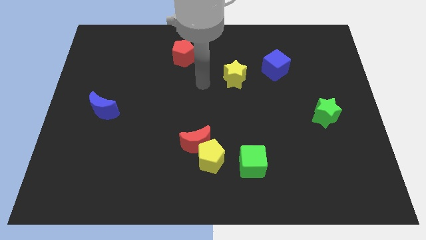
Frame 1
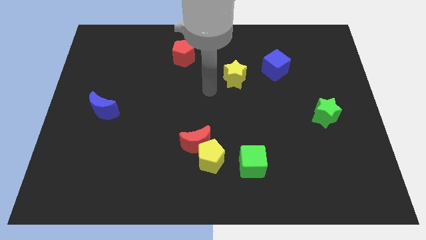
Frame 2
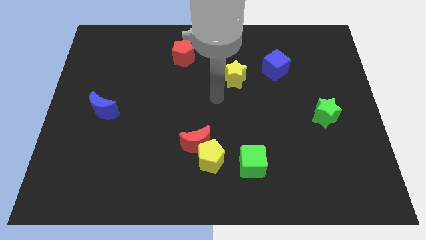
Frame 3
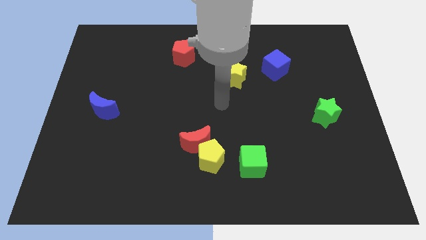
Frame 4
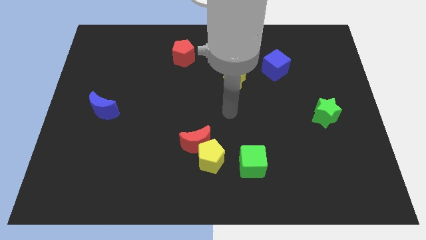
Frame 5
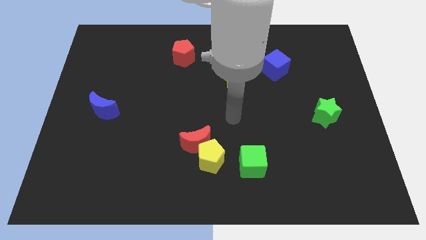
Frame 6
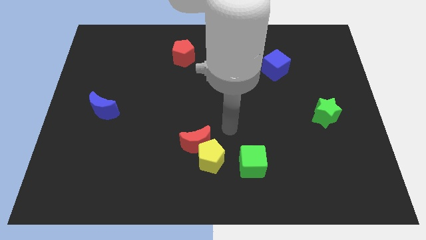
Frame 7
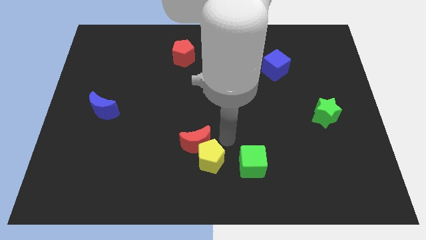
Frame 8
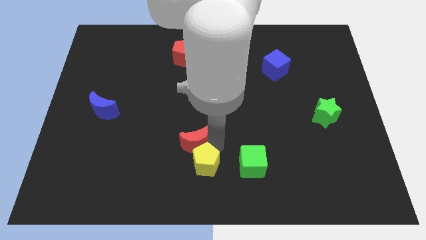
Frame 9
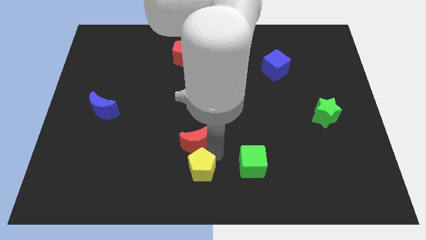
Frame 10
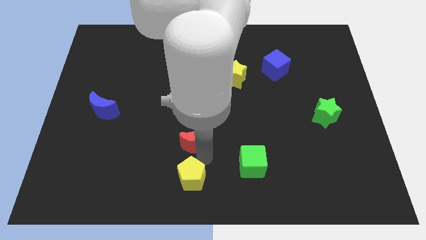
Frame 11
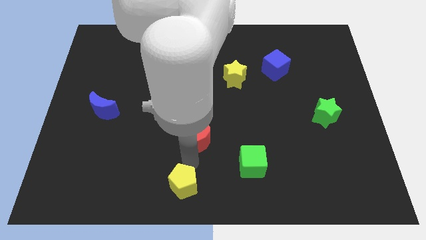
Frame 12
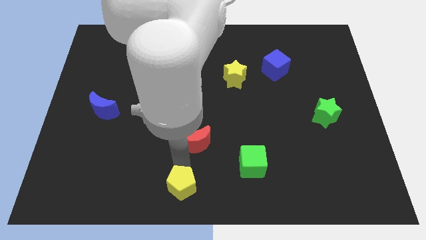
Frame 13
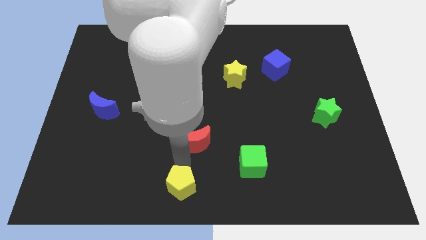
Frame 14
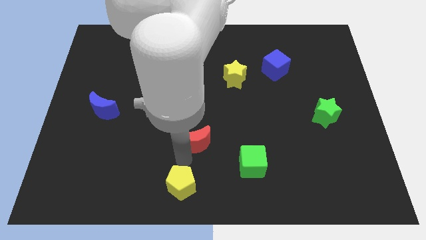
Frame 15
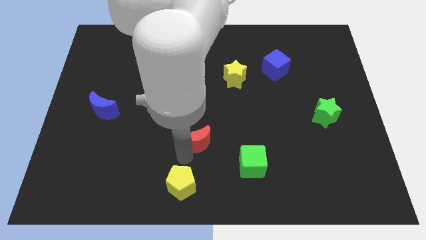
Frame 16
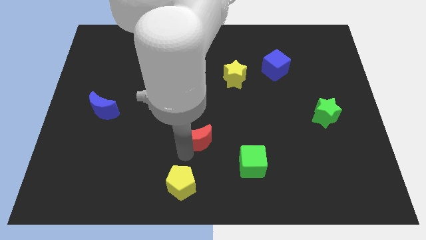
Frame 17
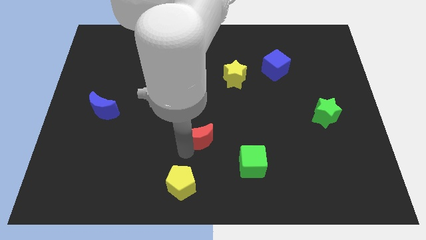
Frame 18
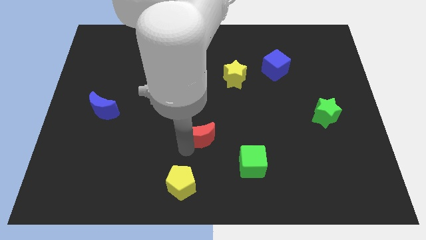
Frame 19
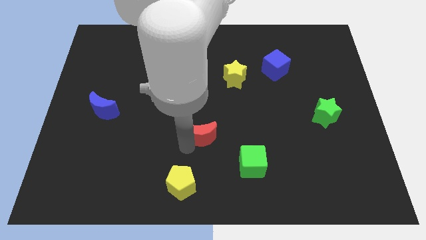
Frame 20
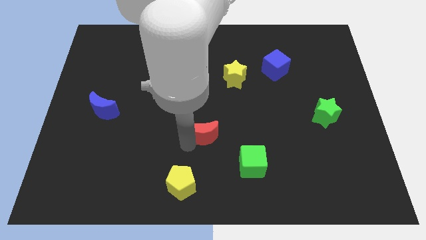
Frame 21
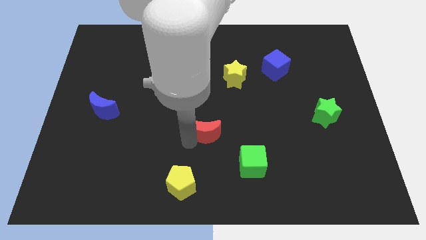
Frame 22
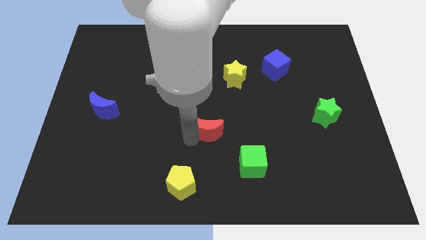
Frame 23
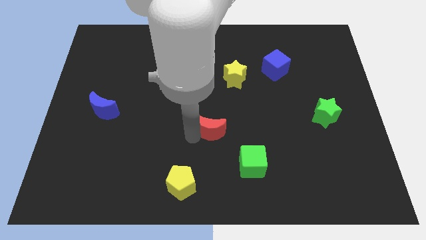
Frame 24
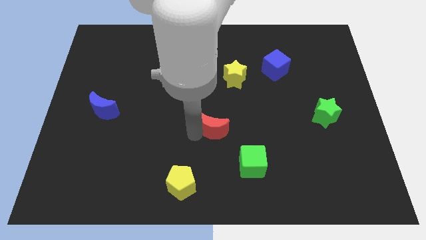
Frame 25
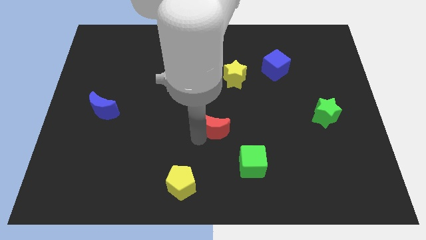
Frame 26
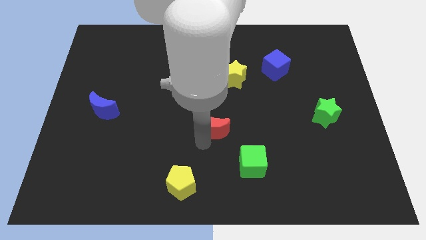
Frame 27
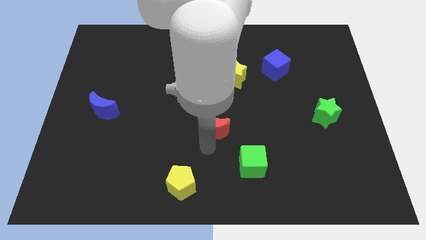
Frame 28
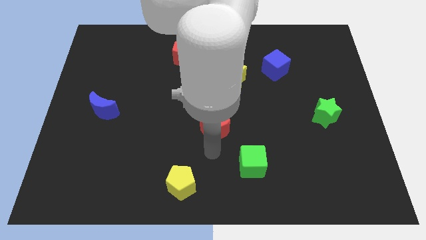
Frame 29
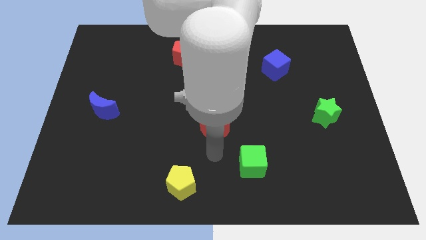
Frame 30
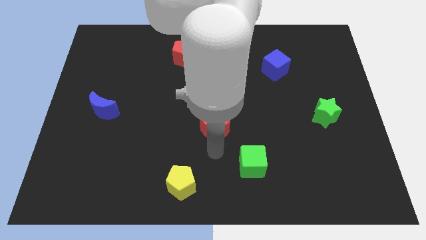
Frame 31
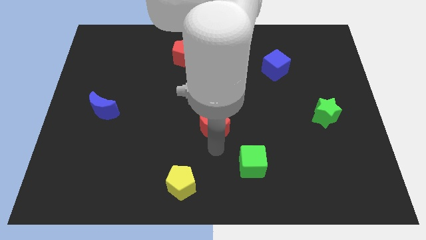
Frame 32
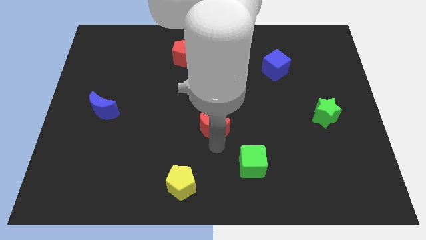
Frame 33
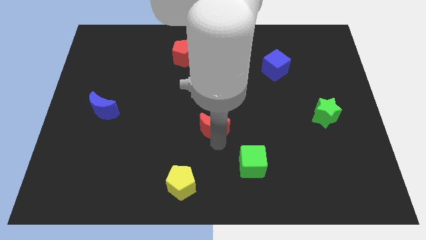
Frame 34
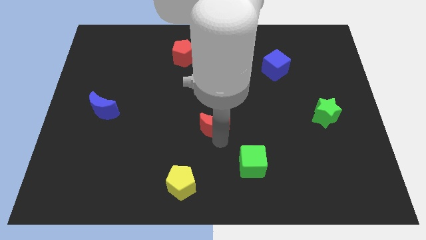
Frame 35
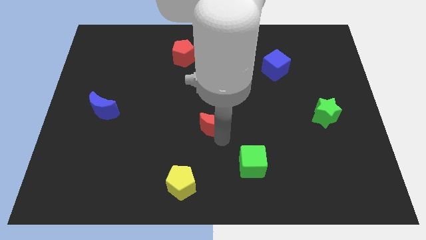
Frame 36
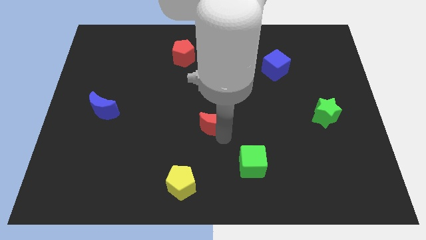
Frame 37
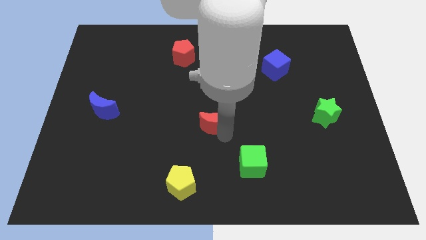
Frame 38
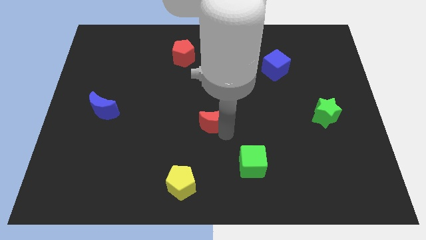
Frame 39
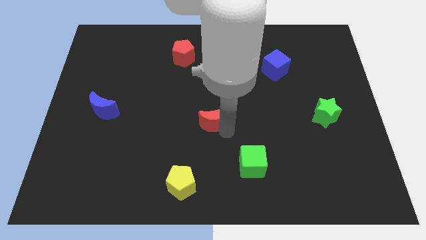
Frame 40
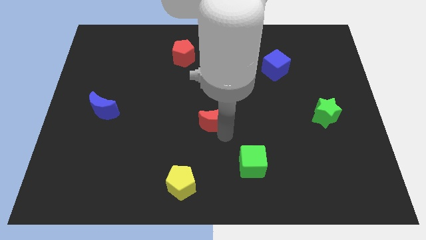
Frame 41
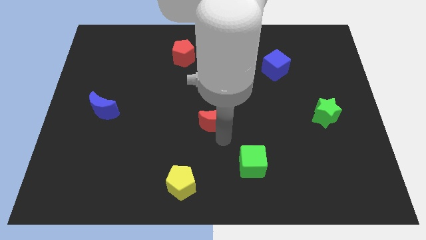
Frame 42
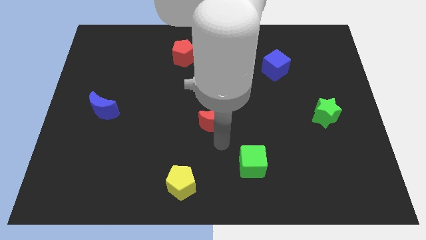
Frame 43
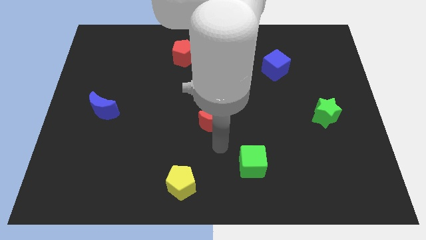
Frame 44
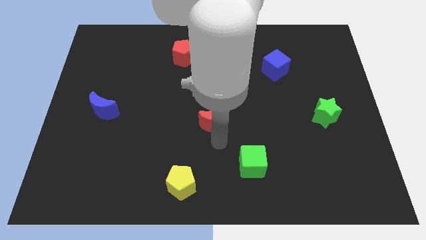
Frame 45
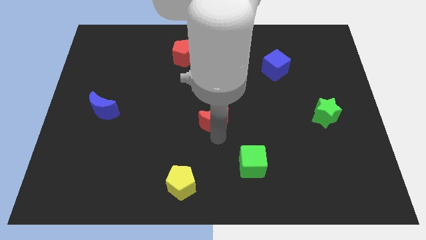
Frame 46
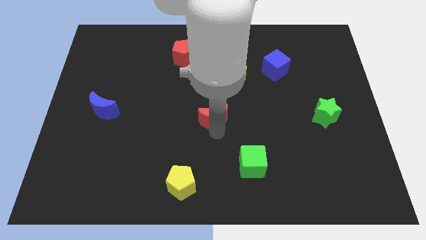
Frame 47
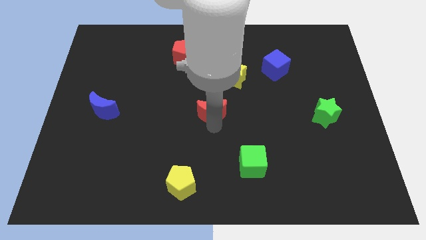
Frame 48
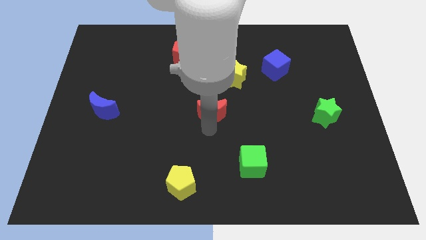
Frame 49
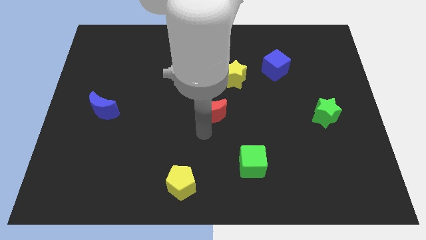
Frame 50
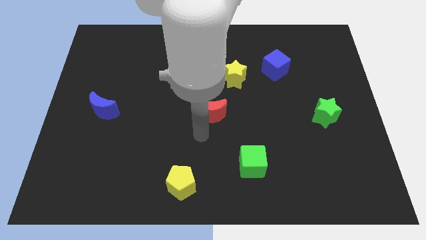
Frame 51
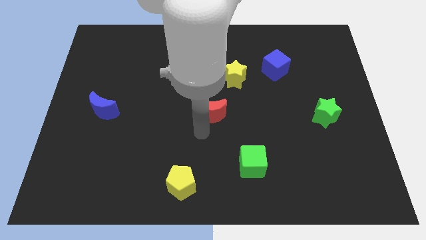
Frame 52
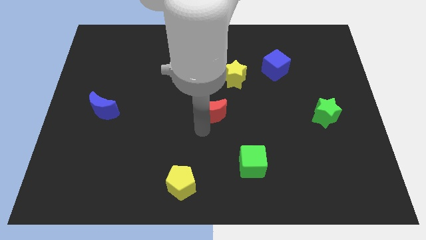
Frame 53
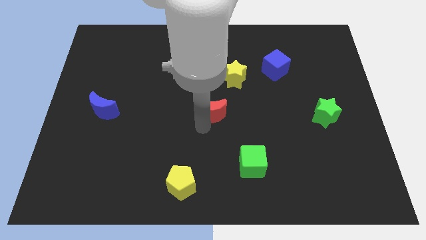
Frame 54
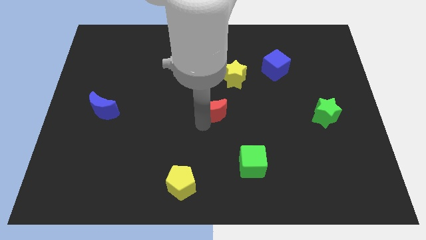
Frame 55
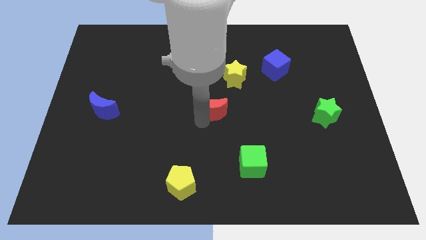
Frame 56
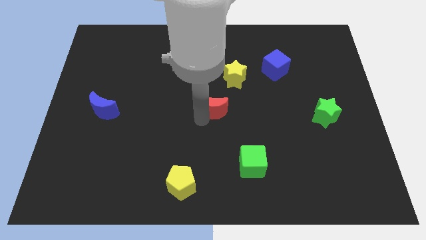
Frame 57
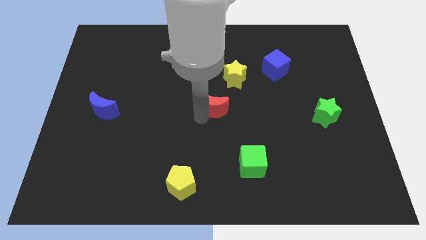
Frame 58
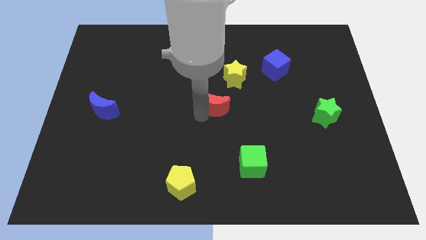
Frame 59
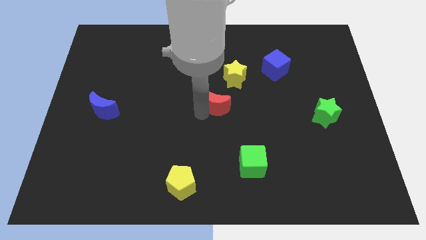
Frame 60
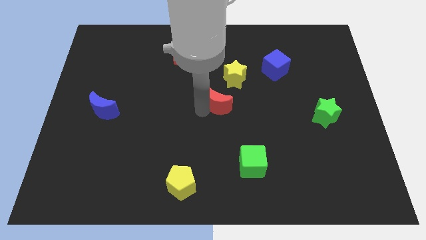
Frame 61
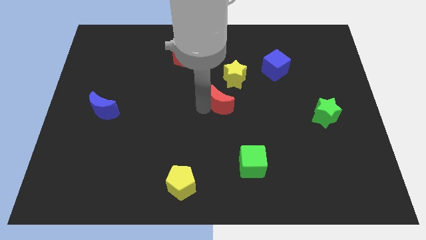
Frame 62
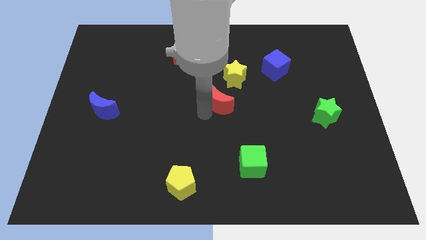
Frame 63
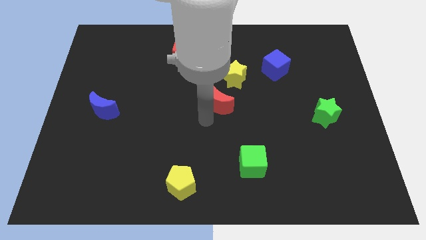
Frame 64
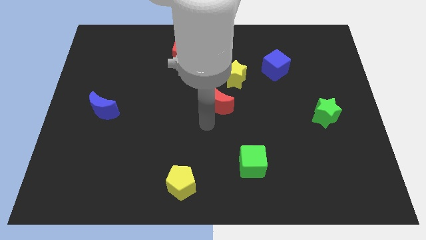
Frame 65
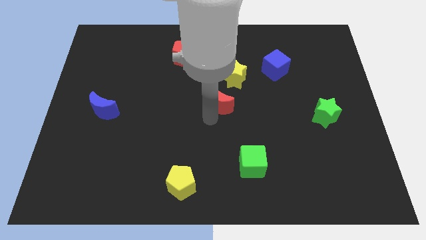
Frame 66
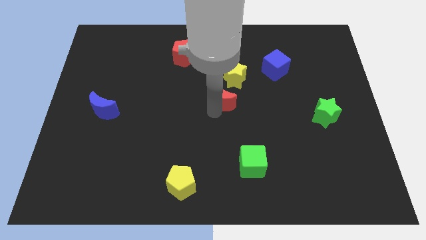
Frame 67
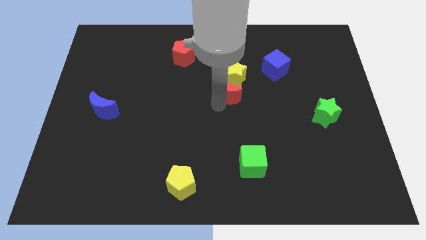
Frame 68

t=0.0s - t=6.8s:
put the red moon next to the yellow star
